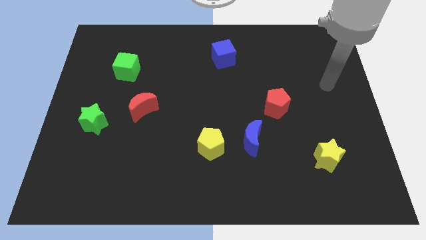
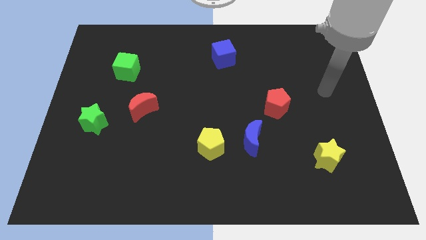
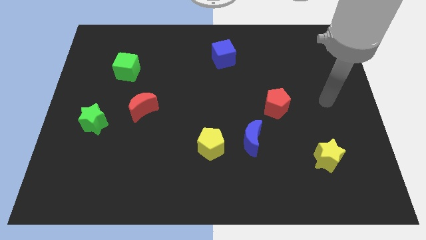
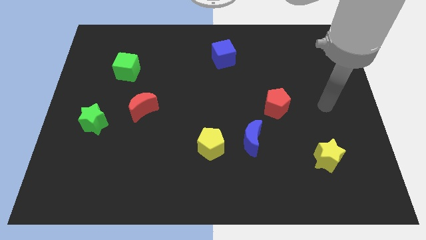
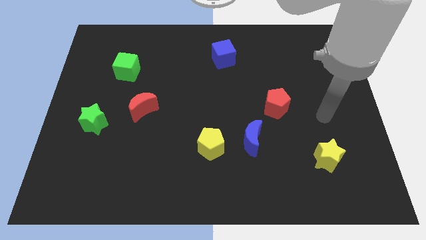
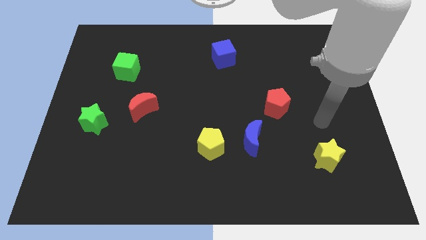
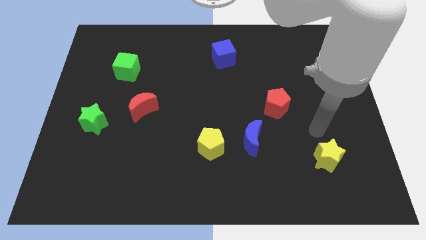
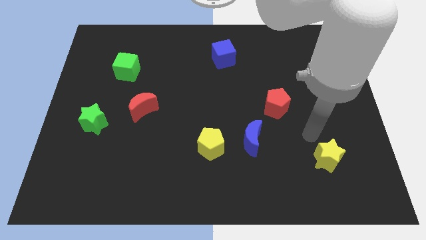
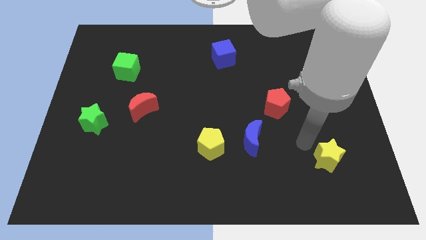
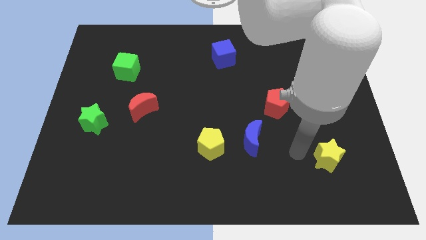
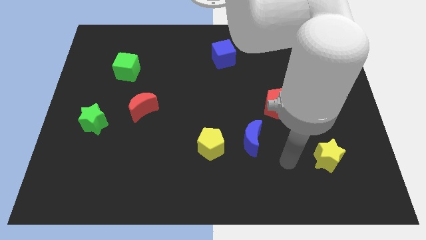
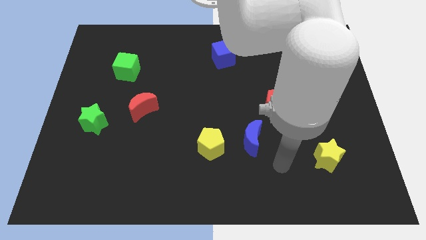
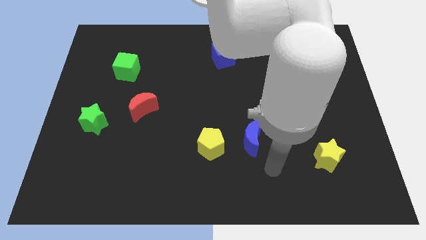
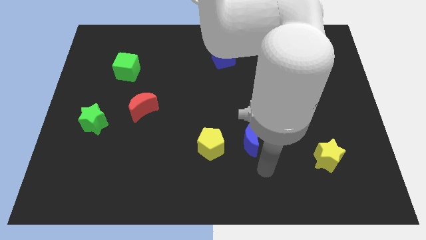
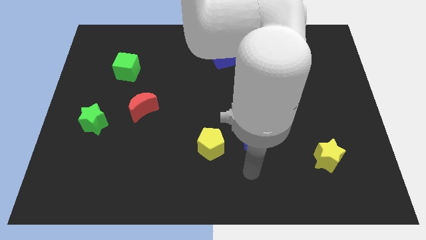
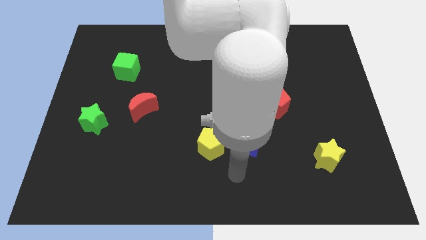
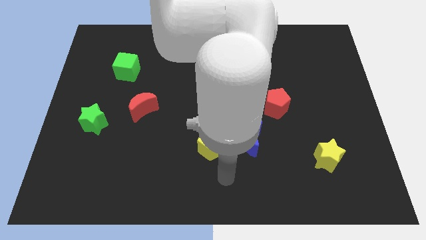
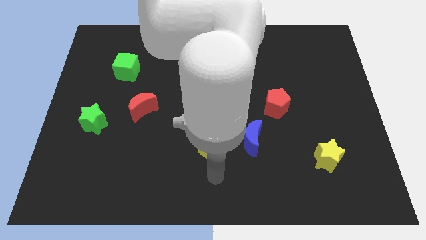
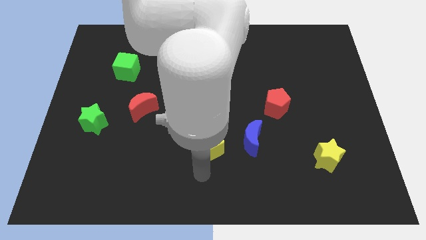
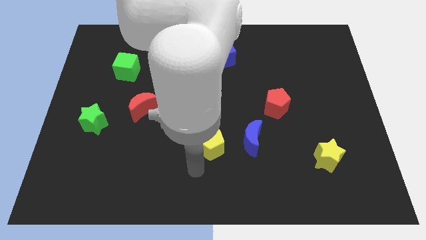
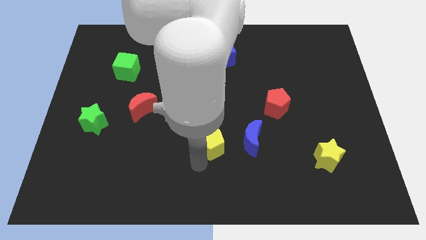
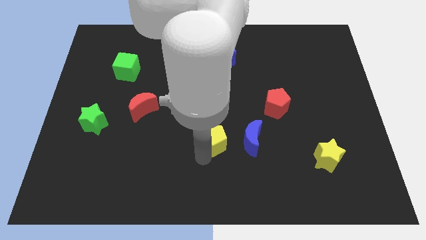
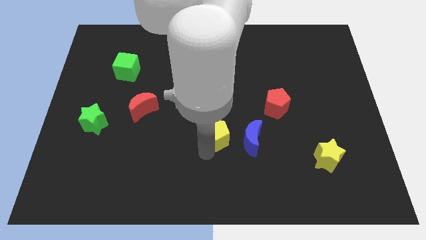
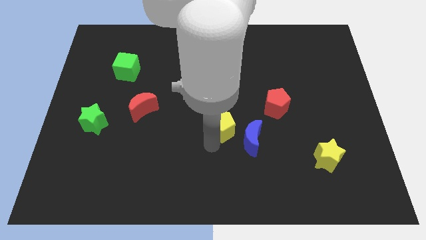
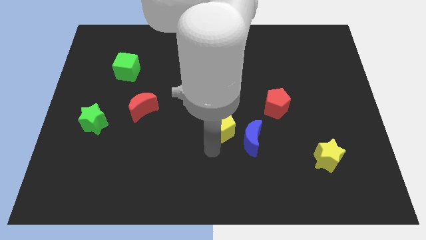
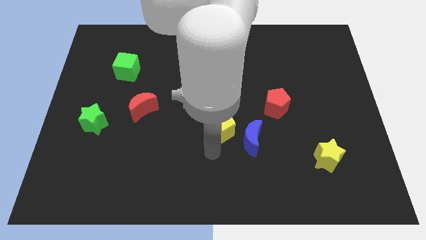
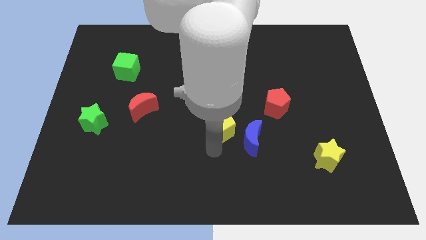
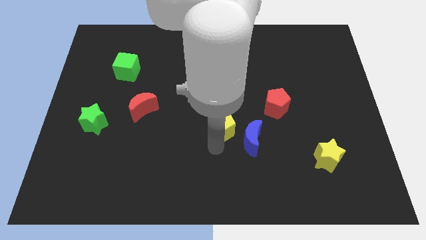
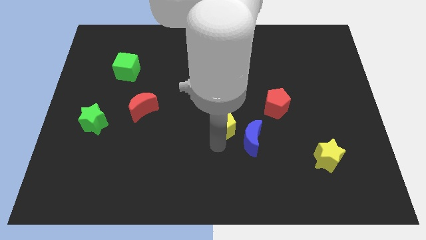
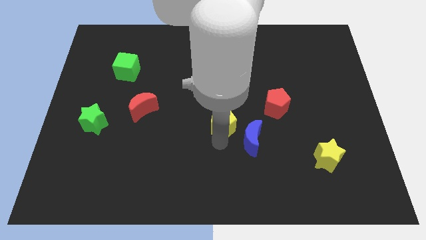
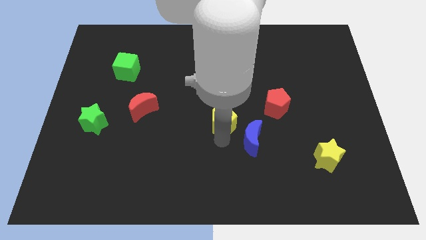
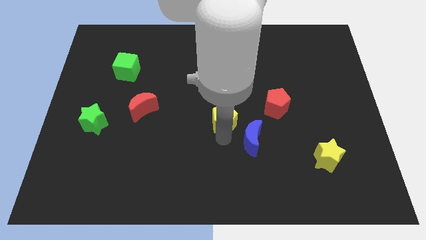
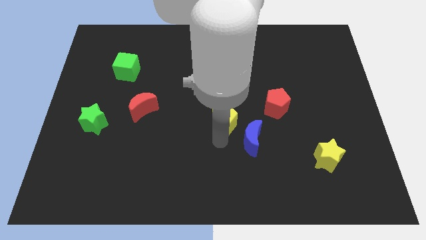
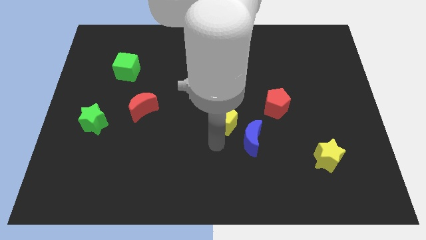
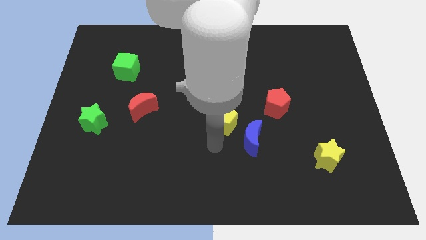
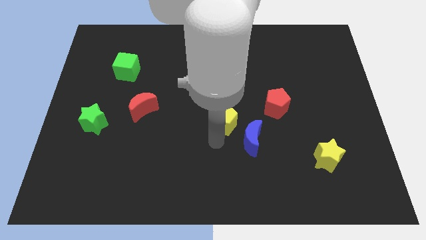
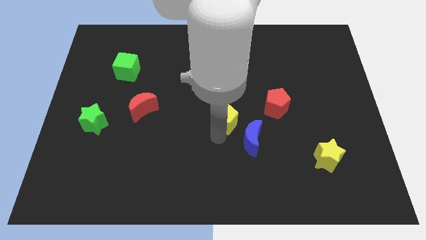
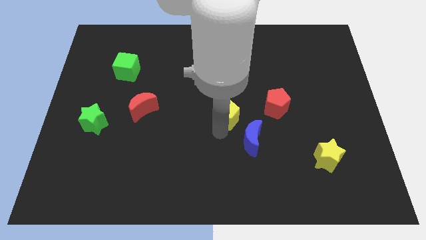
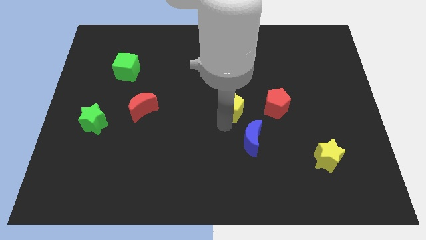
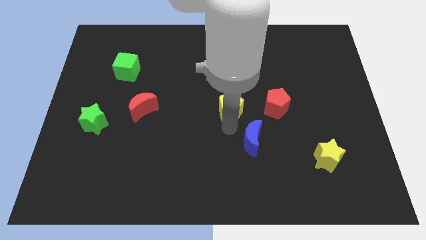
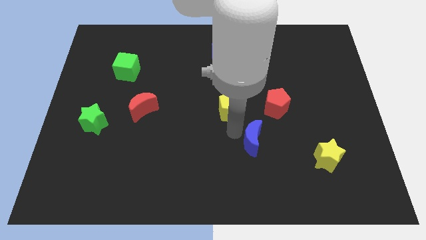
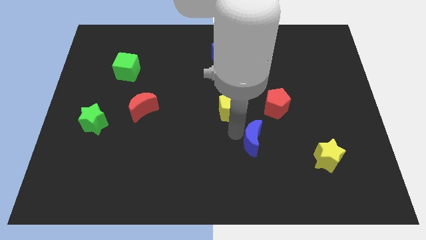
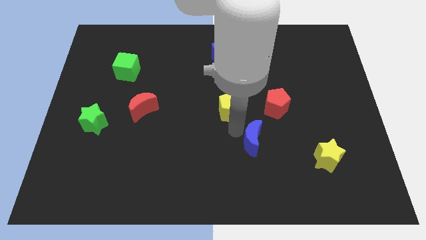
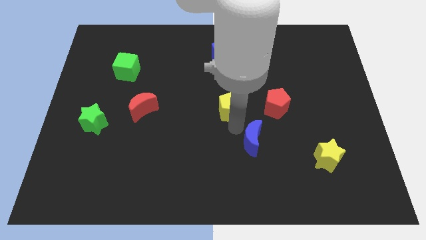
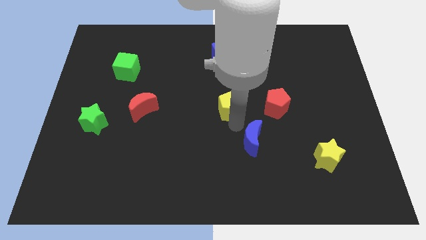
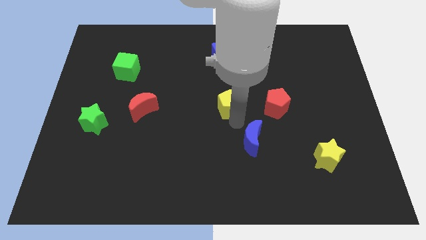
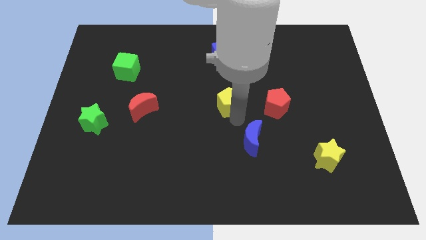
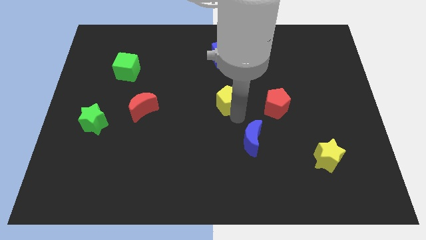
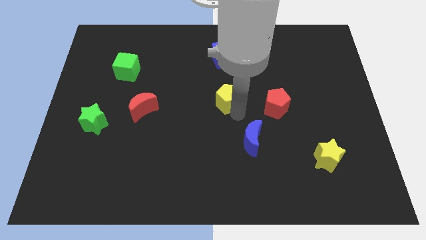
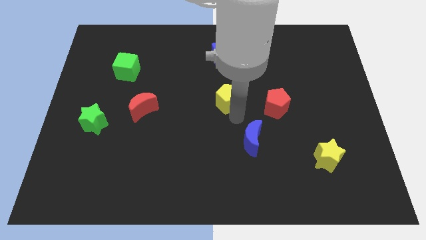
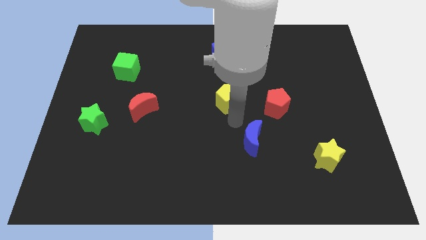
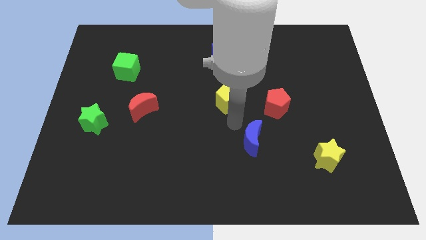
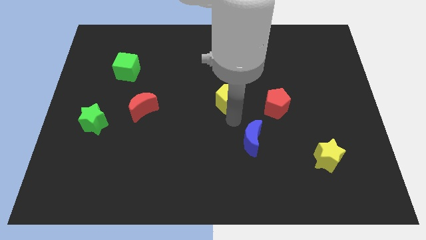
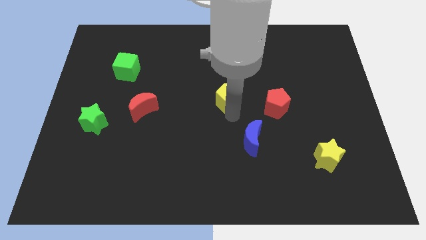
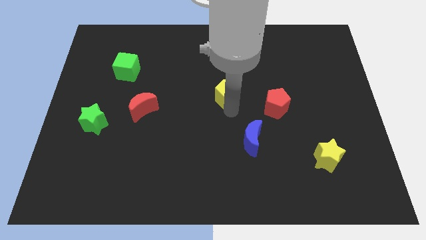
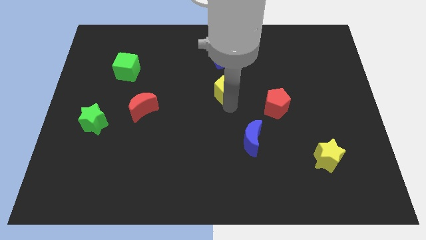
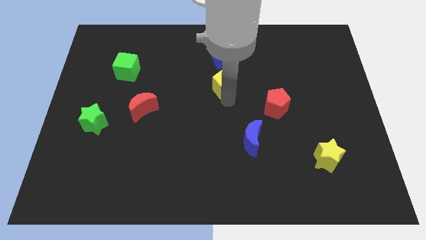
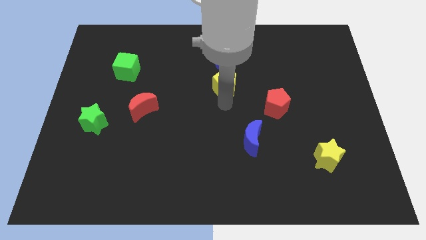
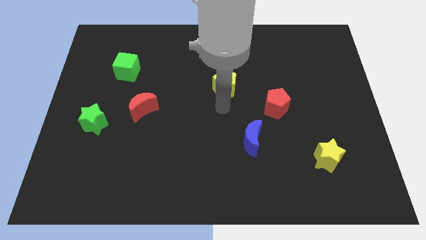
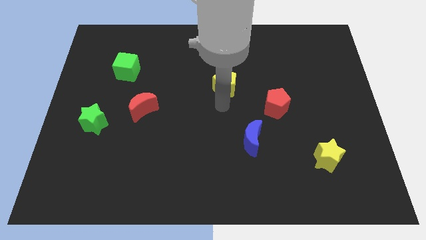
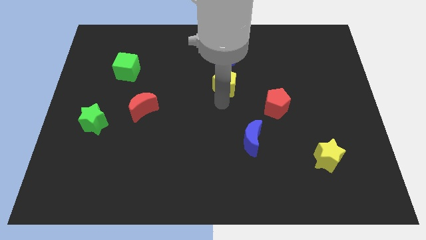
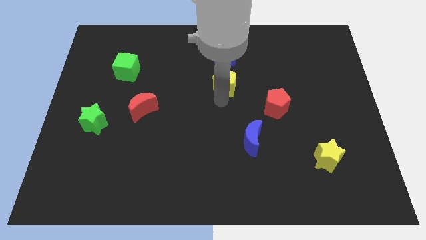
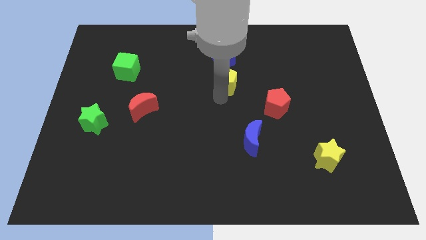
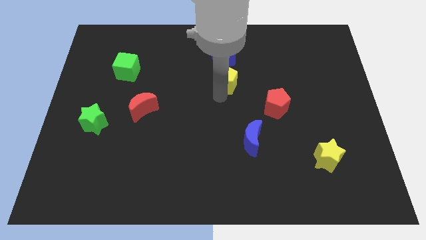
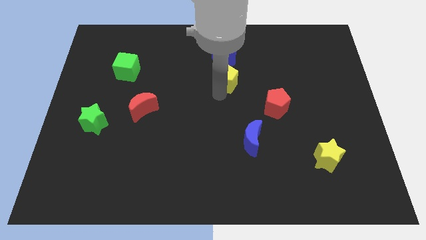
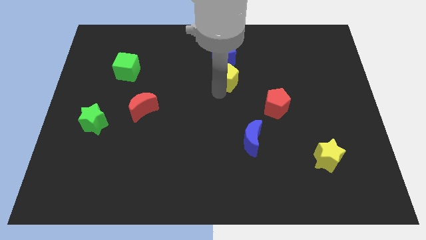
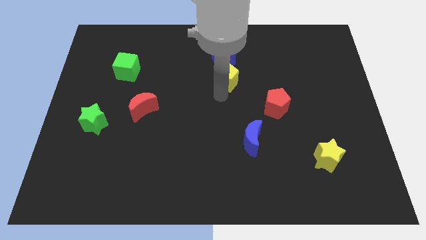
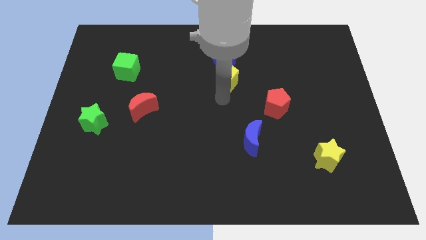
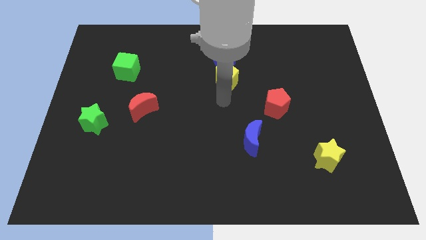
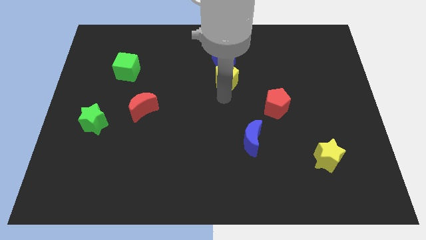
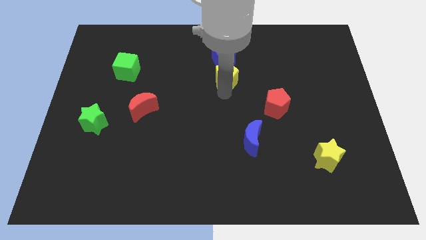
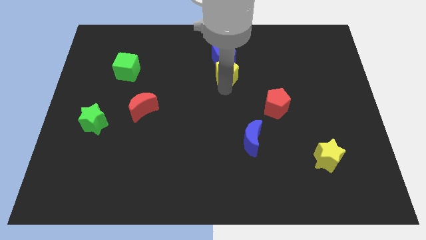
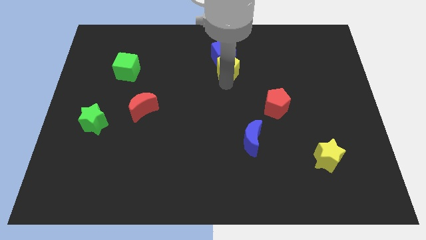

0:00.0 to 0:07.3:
push the yellow pentagon close to the blue cube
